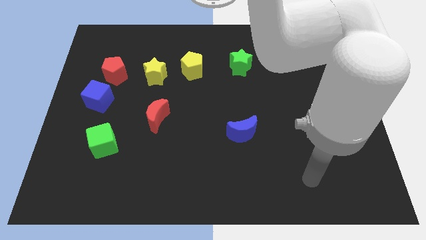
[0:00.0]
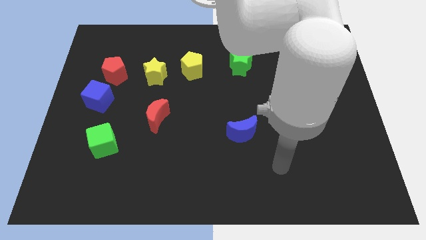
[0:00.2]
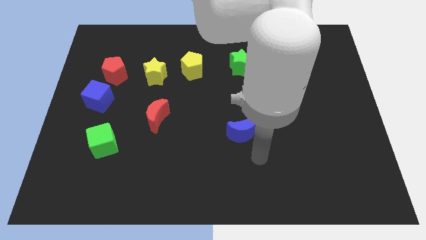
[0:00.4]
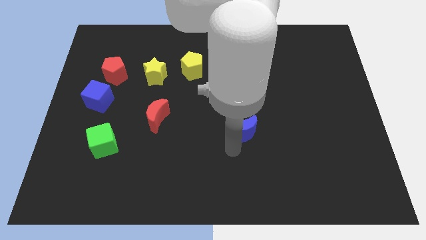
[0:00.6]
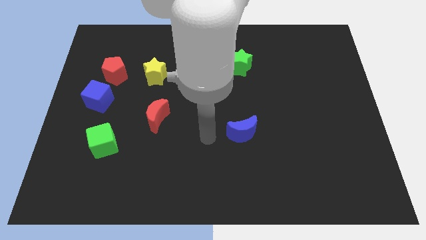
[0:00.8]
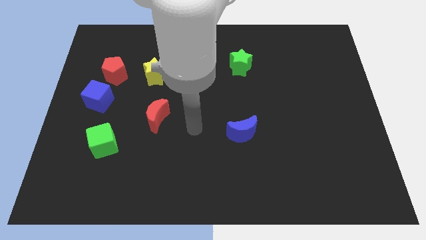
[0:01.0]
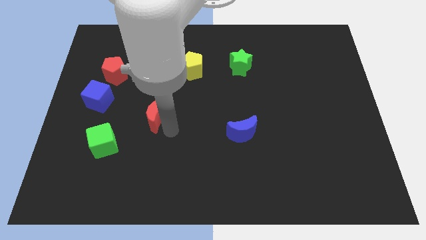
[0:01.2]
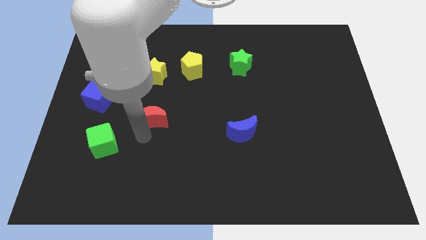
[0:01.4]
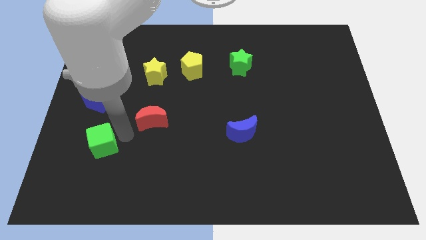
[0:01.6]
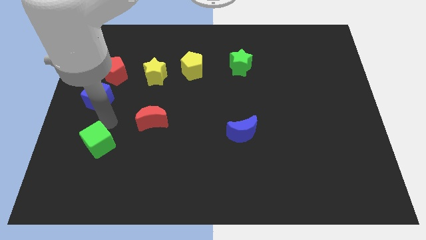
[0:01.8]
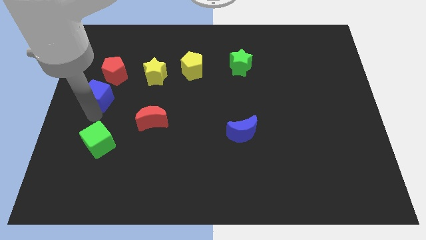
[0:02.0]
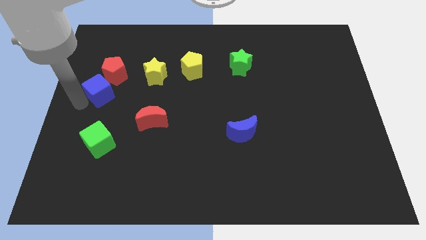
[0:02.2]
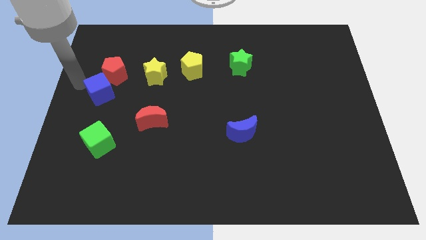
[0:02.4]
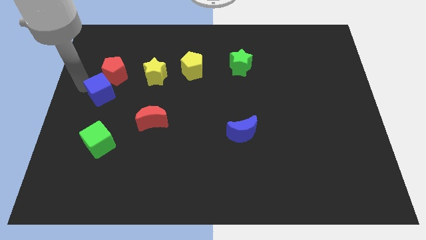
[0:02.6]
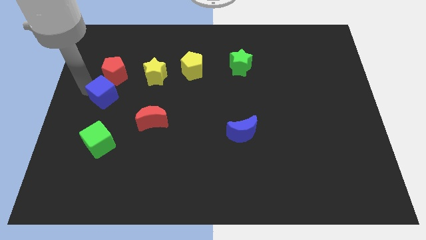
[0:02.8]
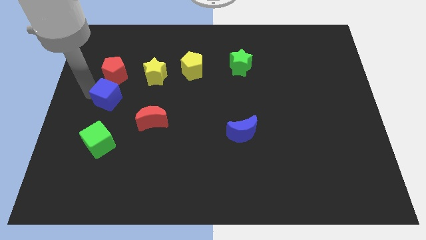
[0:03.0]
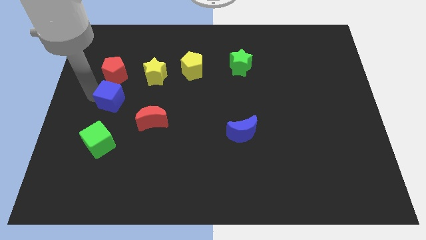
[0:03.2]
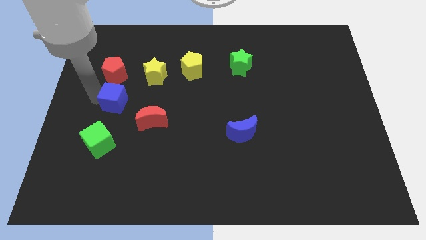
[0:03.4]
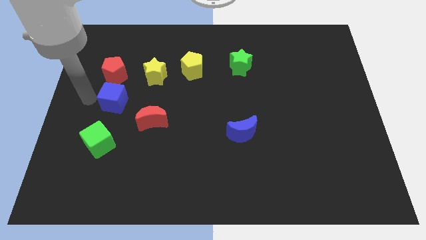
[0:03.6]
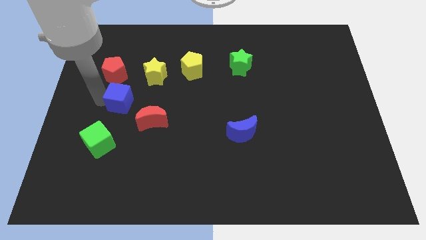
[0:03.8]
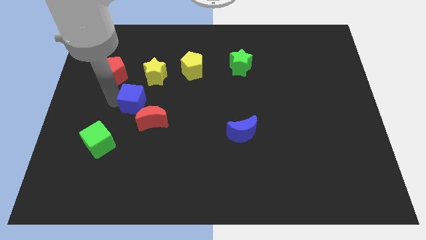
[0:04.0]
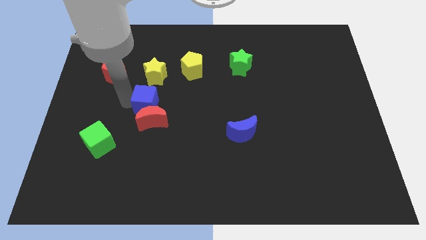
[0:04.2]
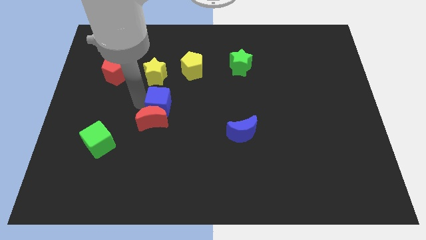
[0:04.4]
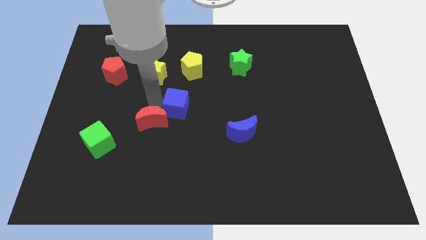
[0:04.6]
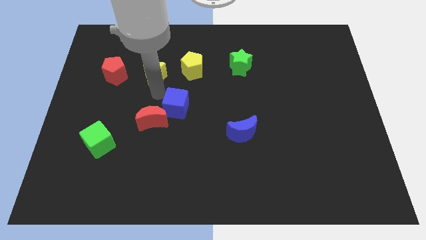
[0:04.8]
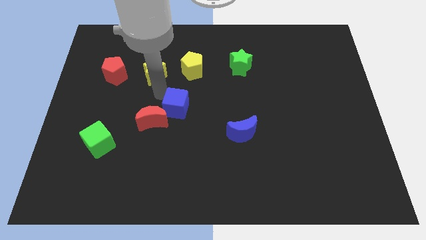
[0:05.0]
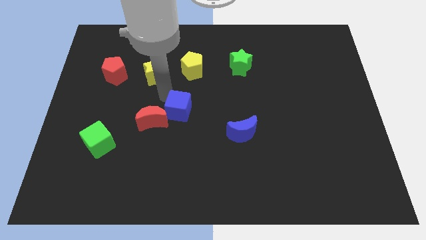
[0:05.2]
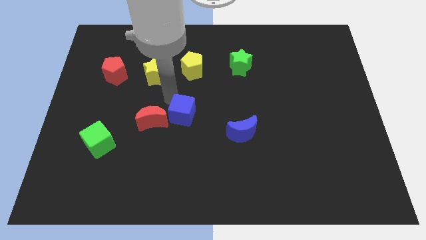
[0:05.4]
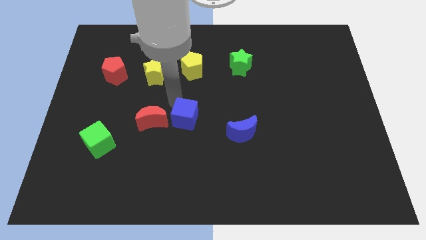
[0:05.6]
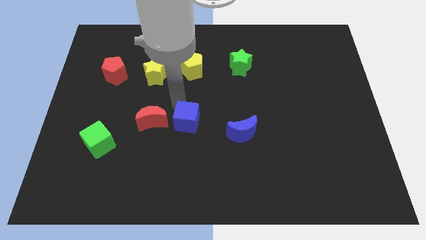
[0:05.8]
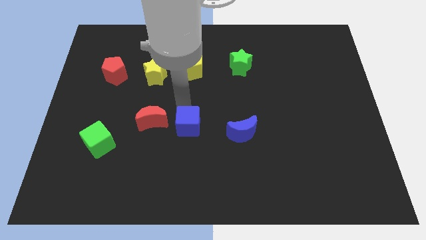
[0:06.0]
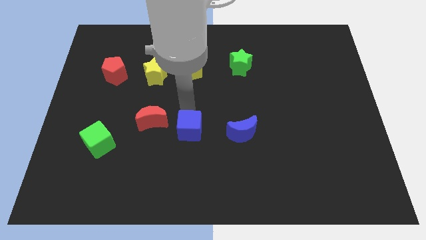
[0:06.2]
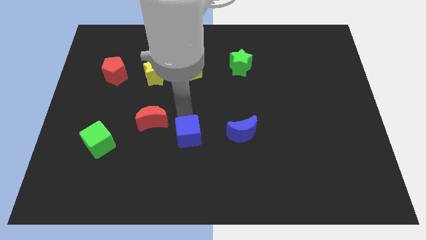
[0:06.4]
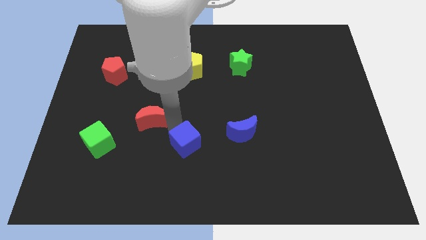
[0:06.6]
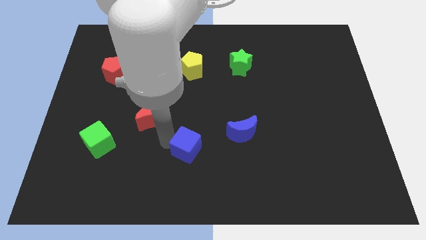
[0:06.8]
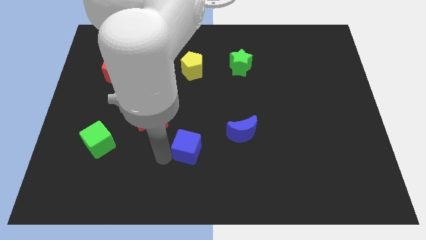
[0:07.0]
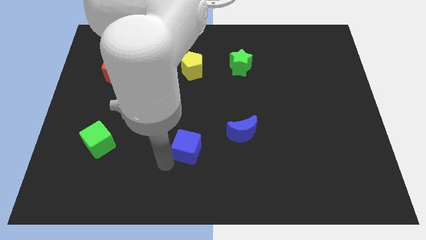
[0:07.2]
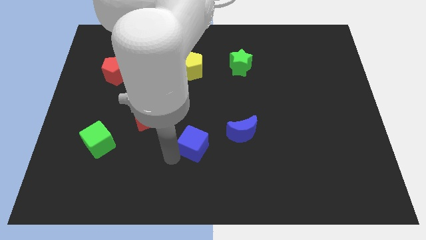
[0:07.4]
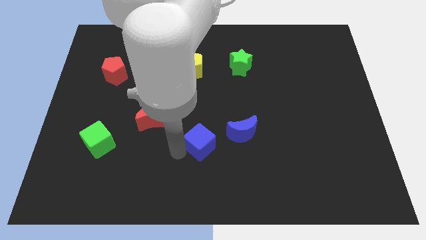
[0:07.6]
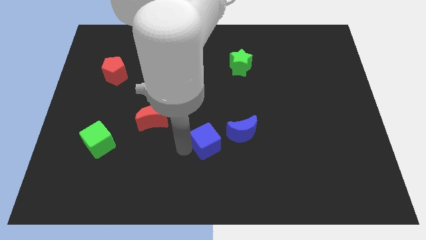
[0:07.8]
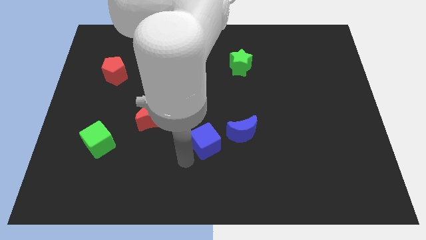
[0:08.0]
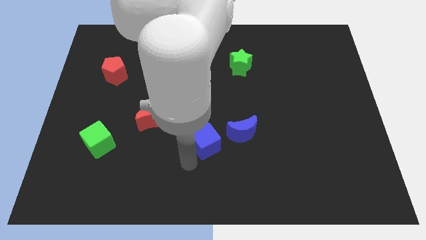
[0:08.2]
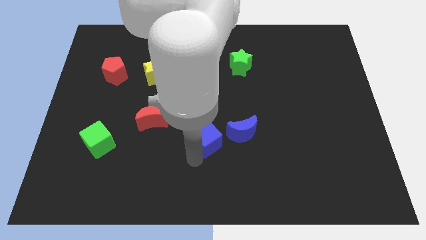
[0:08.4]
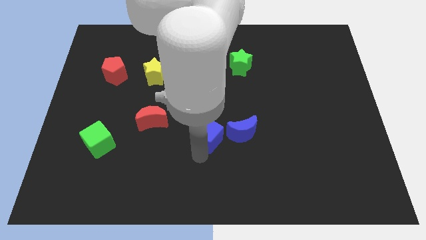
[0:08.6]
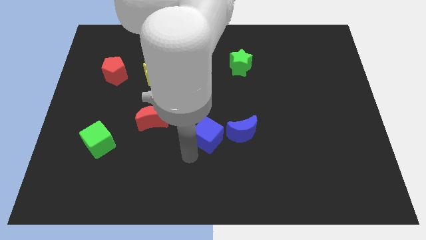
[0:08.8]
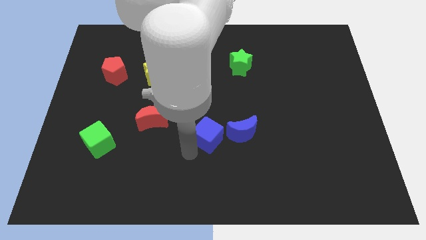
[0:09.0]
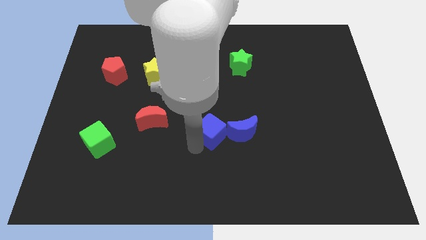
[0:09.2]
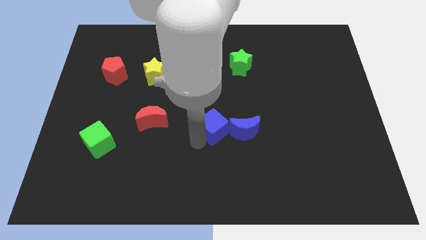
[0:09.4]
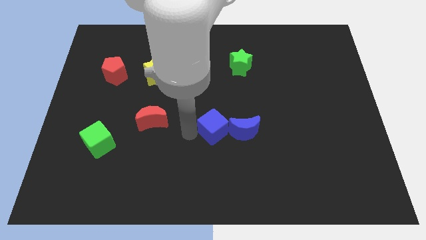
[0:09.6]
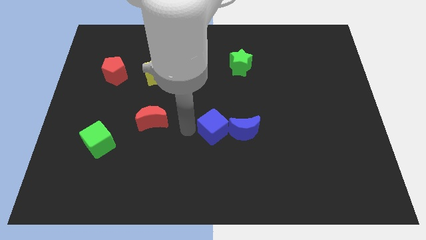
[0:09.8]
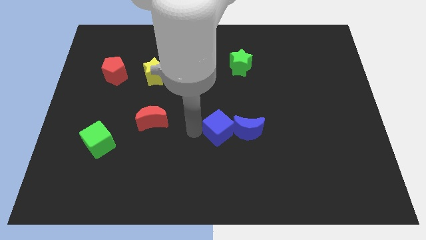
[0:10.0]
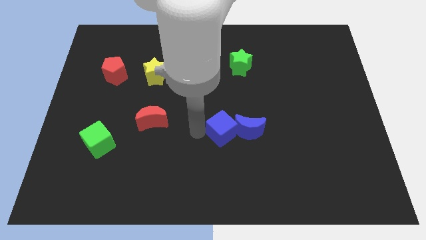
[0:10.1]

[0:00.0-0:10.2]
slide the blue cube close to the blue moon

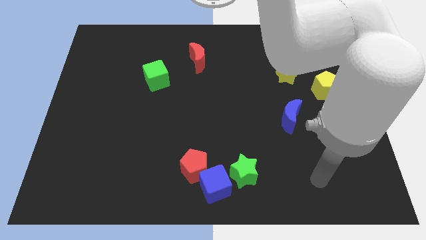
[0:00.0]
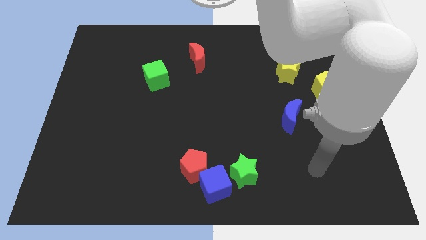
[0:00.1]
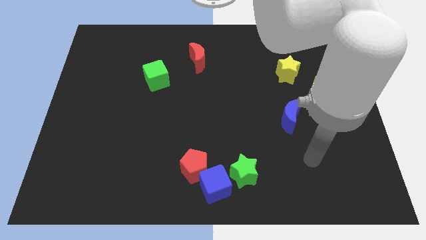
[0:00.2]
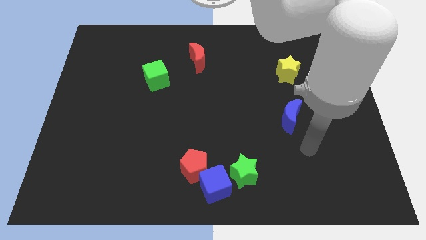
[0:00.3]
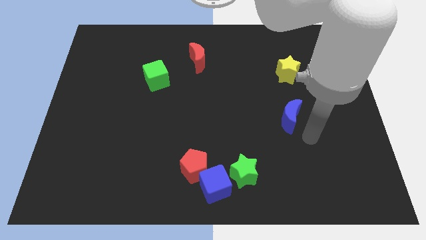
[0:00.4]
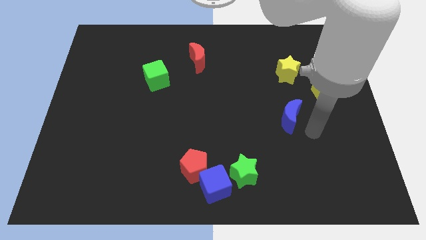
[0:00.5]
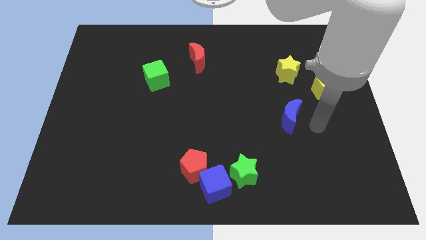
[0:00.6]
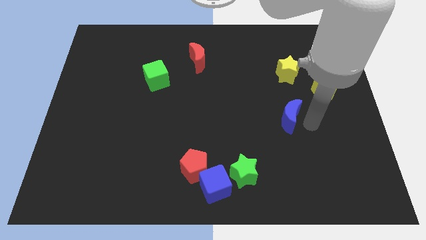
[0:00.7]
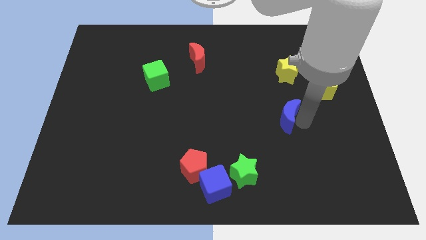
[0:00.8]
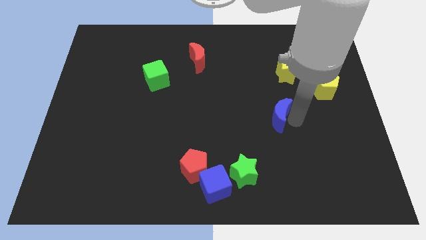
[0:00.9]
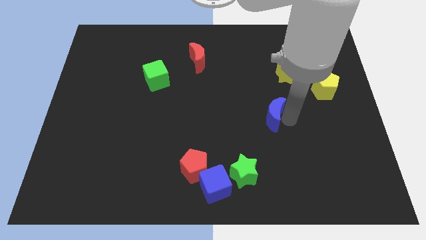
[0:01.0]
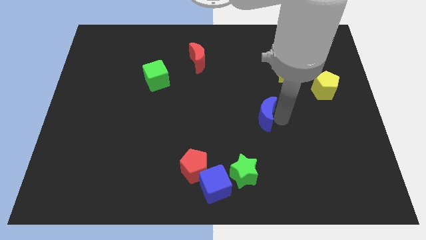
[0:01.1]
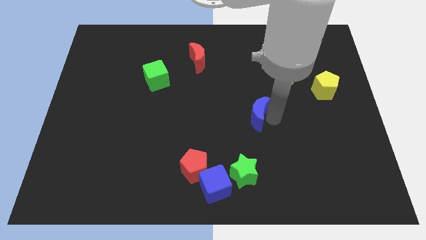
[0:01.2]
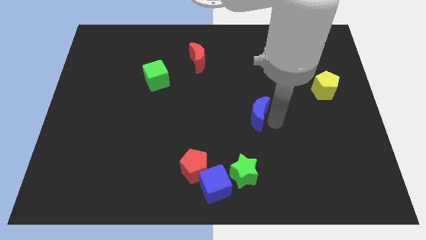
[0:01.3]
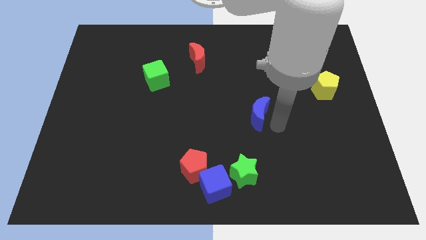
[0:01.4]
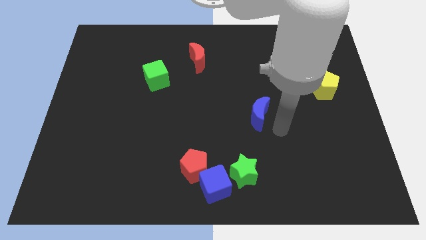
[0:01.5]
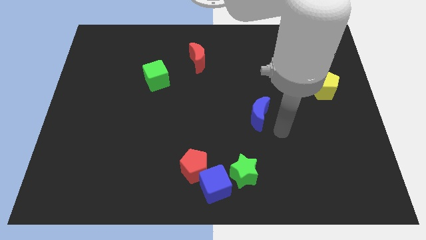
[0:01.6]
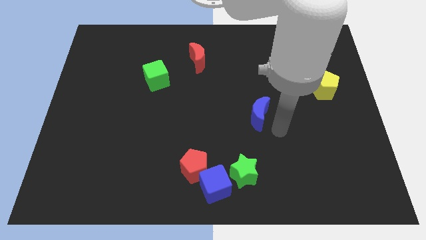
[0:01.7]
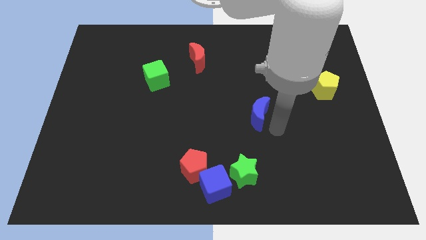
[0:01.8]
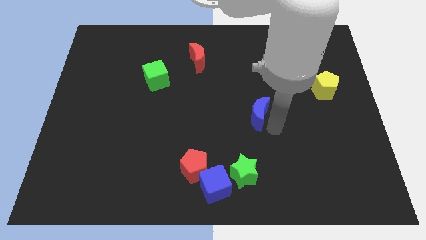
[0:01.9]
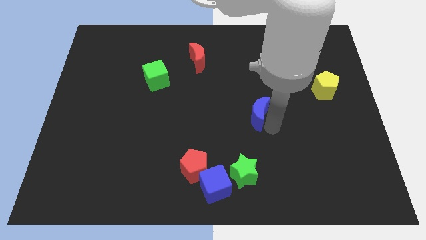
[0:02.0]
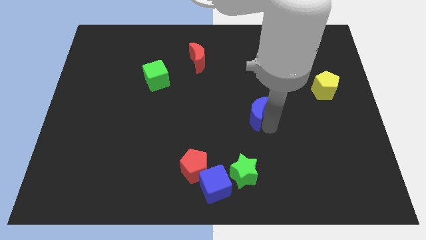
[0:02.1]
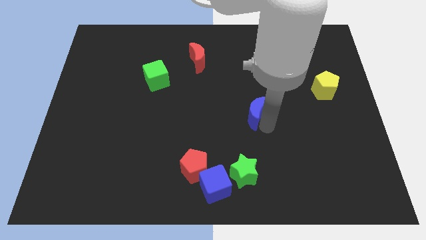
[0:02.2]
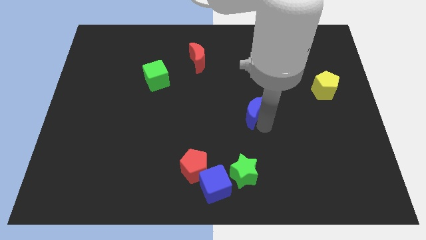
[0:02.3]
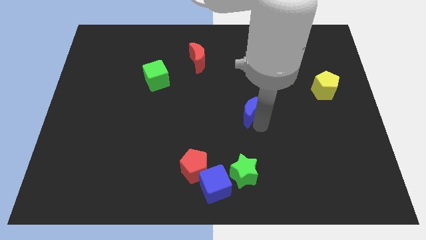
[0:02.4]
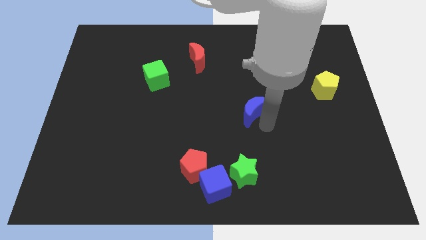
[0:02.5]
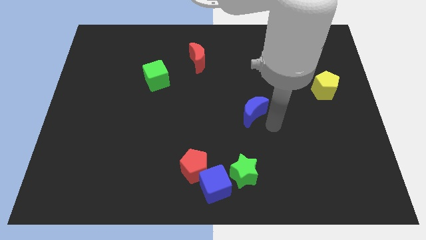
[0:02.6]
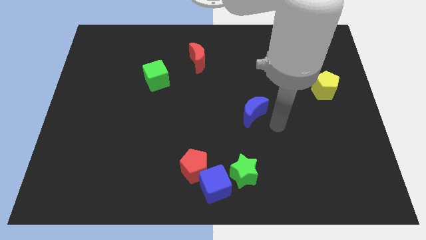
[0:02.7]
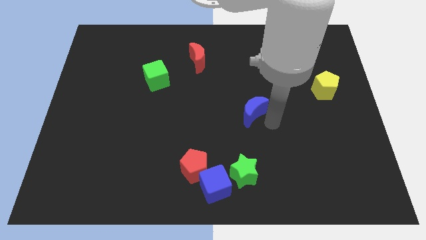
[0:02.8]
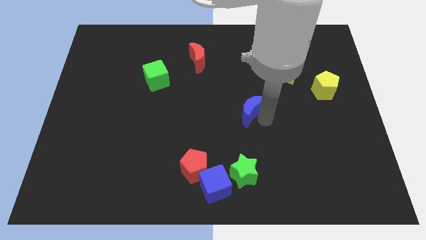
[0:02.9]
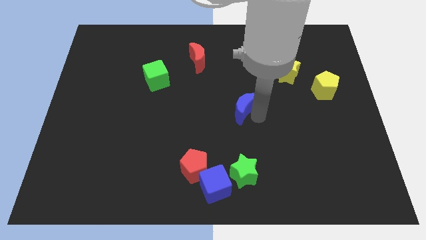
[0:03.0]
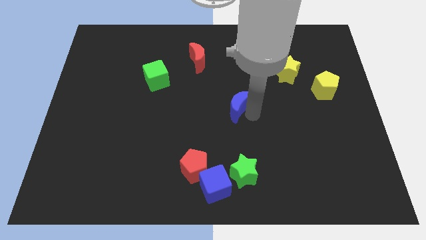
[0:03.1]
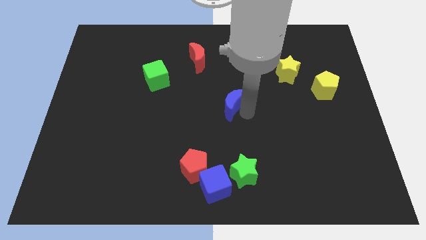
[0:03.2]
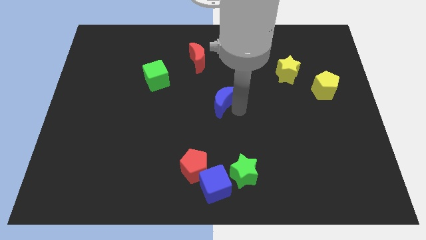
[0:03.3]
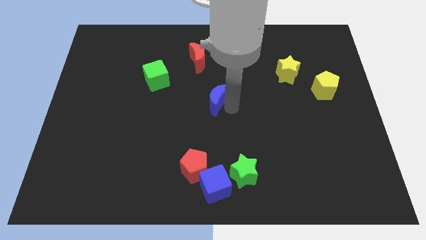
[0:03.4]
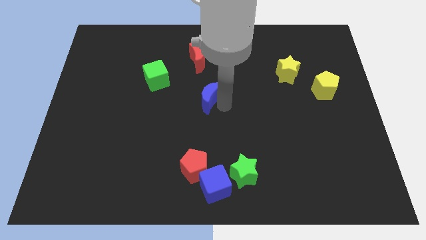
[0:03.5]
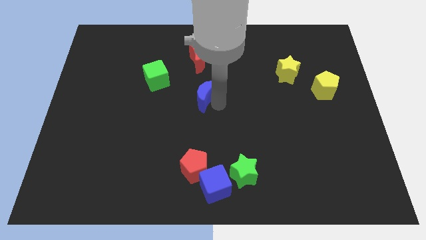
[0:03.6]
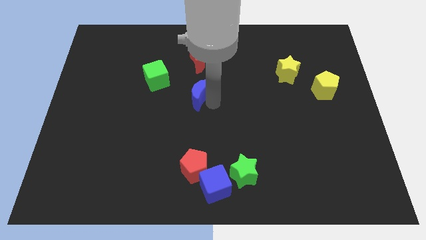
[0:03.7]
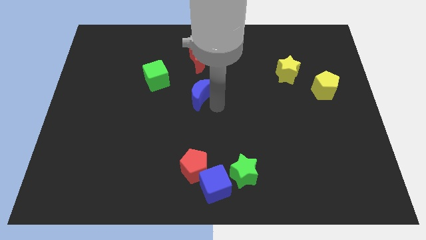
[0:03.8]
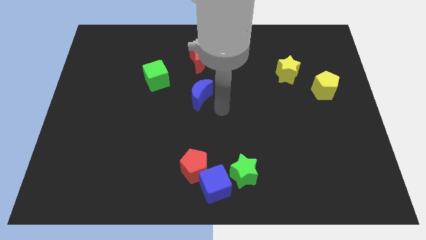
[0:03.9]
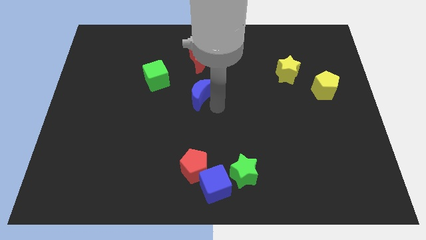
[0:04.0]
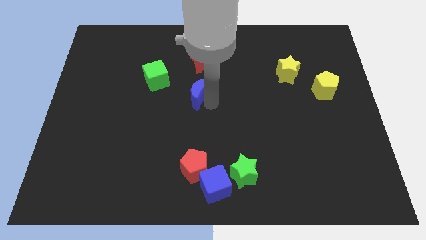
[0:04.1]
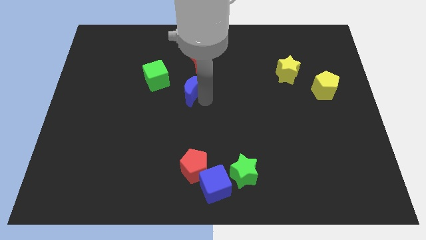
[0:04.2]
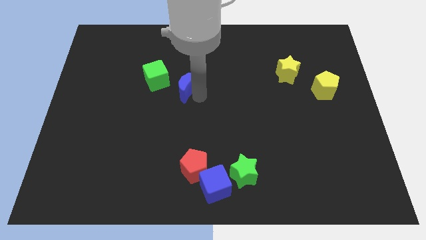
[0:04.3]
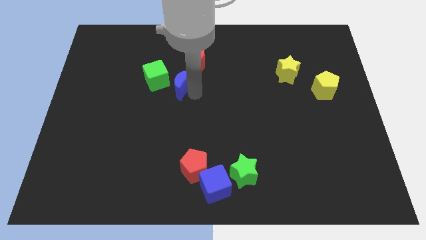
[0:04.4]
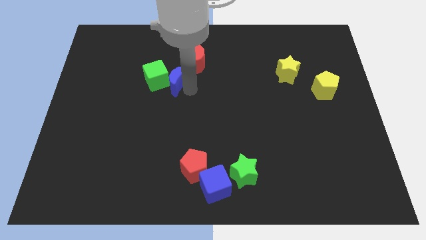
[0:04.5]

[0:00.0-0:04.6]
push the blue moon close to the green cube
